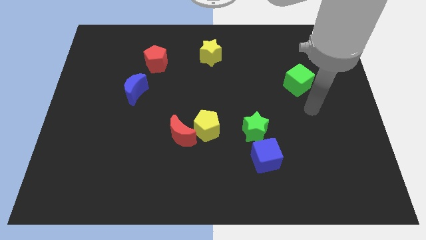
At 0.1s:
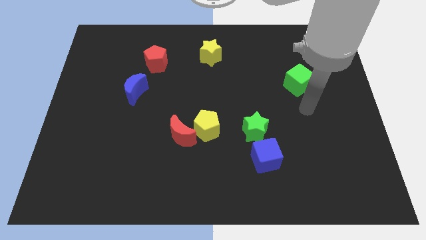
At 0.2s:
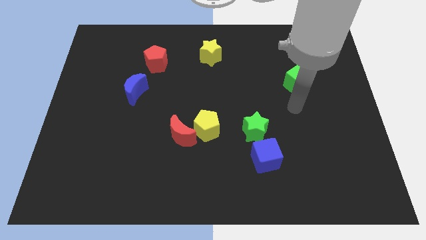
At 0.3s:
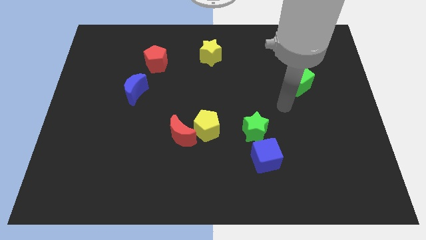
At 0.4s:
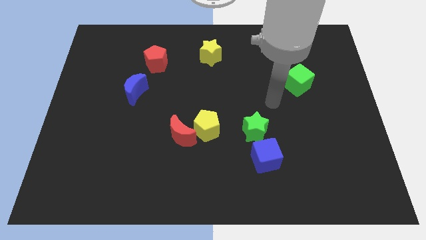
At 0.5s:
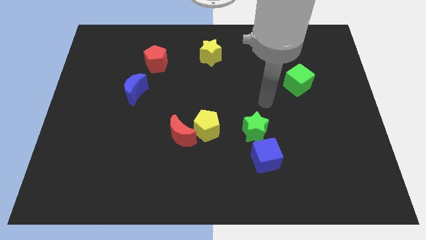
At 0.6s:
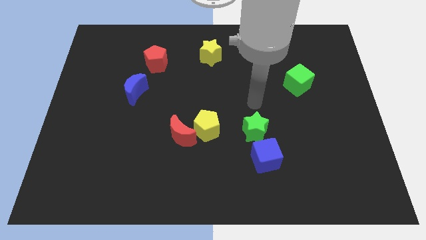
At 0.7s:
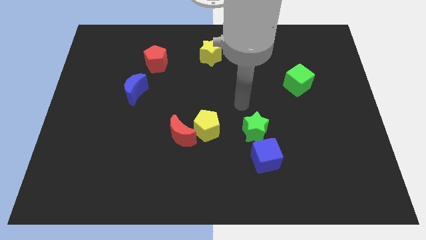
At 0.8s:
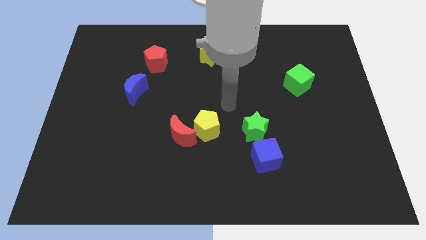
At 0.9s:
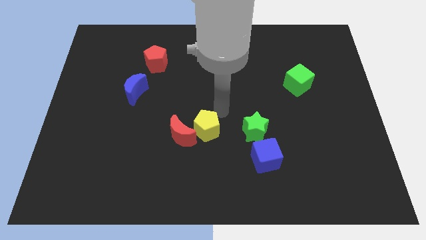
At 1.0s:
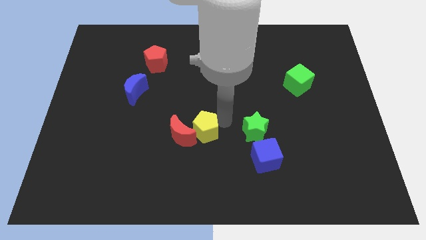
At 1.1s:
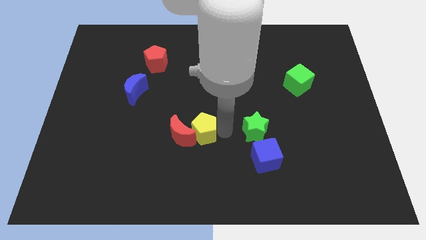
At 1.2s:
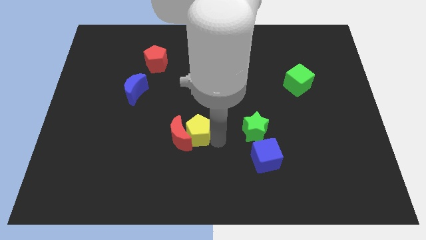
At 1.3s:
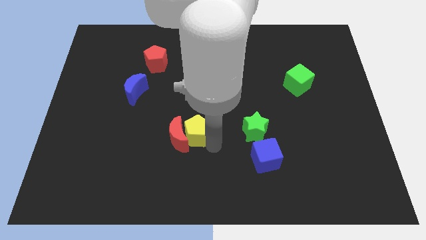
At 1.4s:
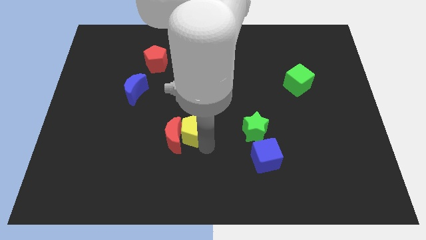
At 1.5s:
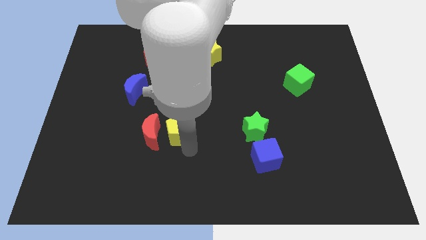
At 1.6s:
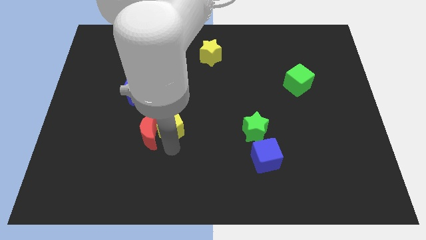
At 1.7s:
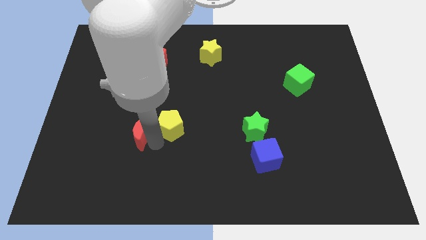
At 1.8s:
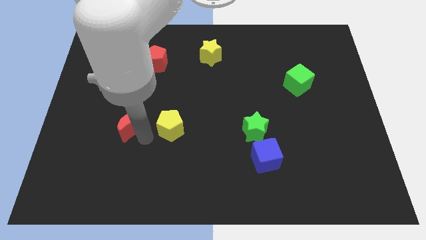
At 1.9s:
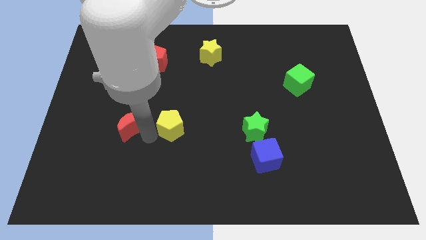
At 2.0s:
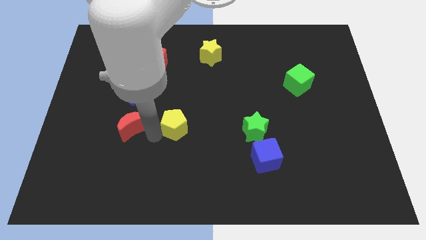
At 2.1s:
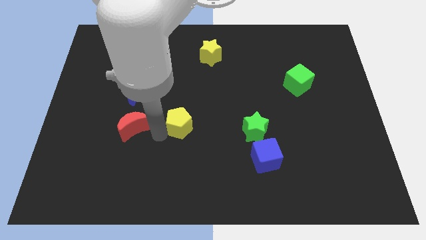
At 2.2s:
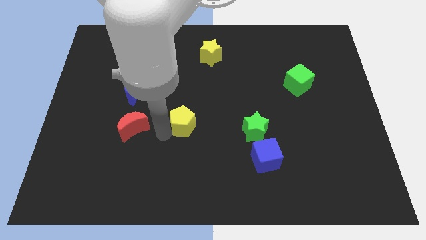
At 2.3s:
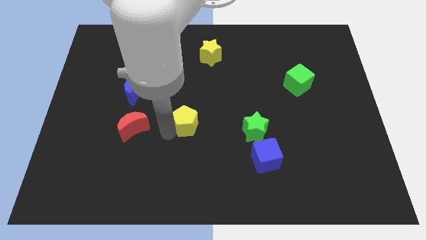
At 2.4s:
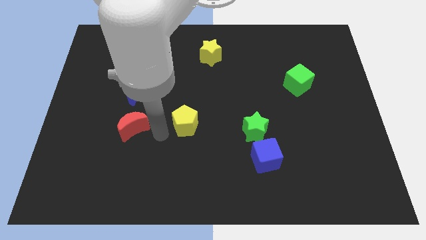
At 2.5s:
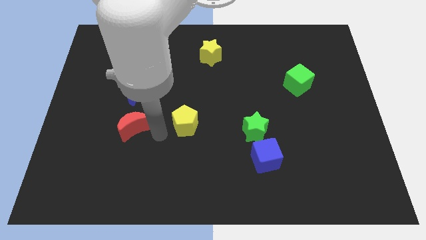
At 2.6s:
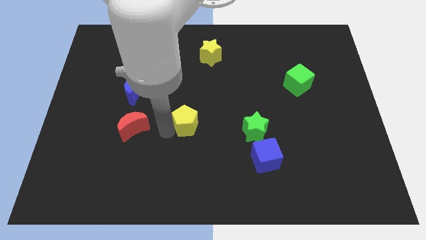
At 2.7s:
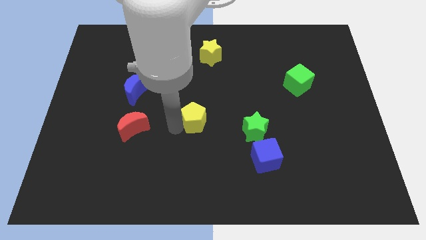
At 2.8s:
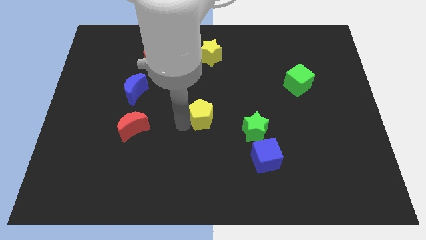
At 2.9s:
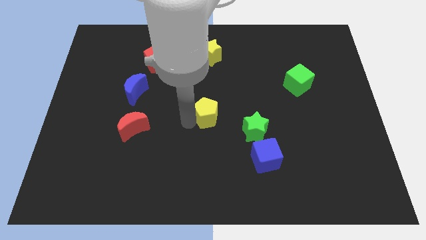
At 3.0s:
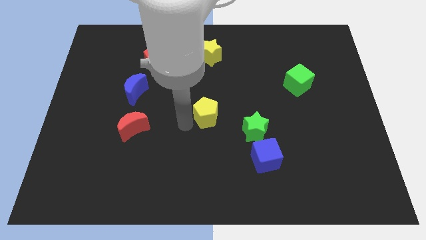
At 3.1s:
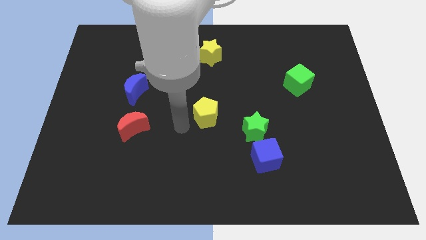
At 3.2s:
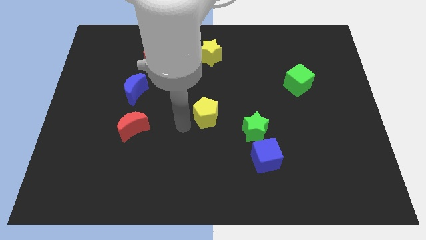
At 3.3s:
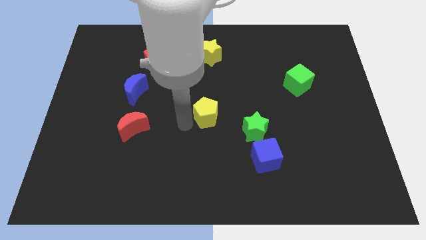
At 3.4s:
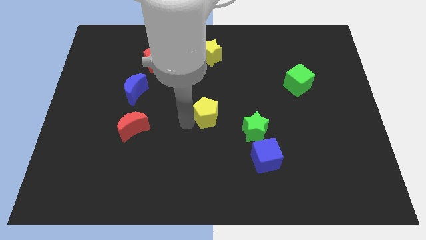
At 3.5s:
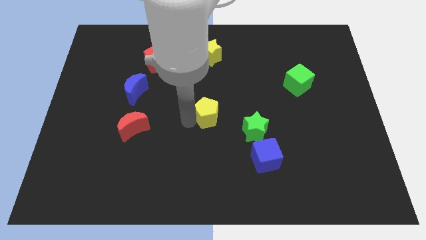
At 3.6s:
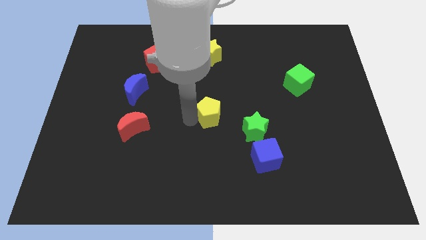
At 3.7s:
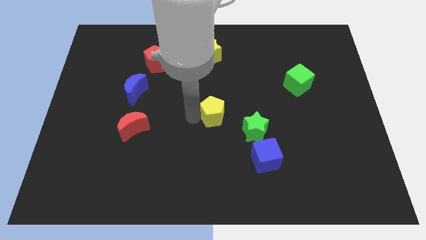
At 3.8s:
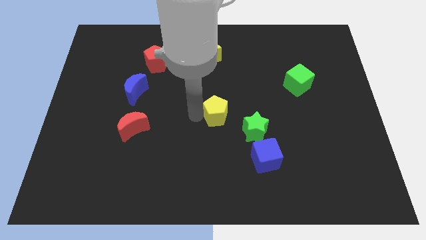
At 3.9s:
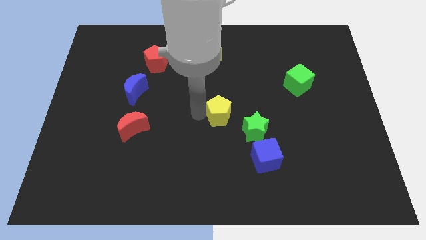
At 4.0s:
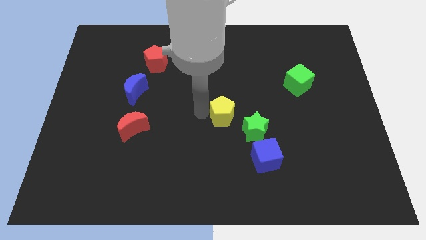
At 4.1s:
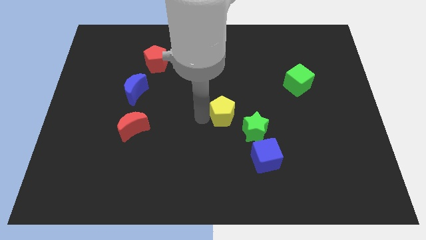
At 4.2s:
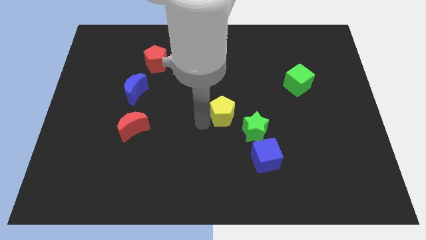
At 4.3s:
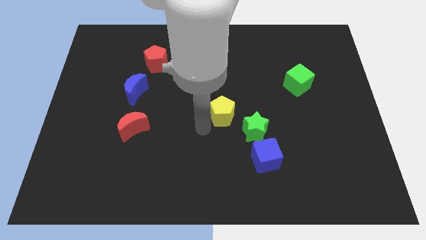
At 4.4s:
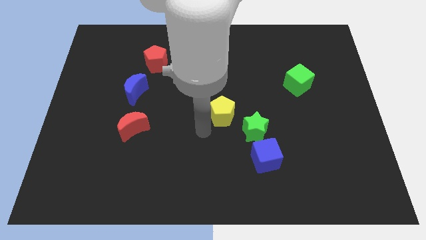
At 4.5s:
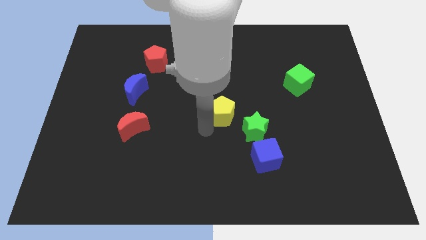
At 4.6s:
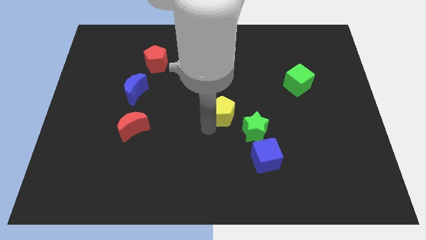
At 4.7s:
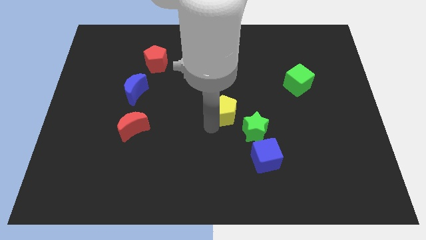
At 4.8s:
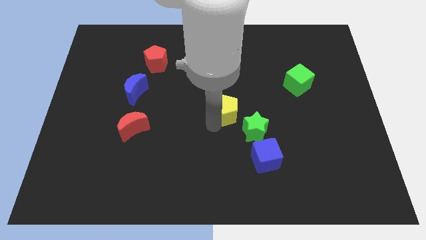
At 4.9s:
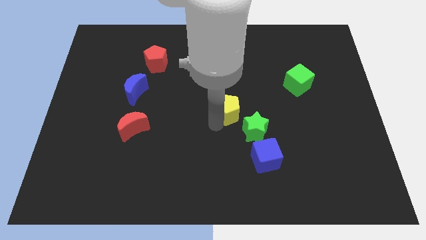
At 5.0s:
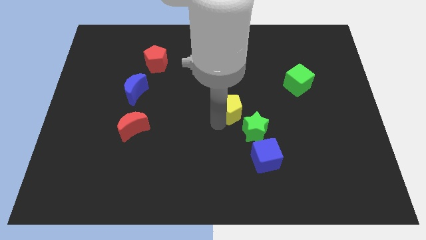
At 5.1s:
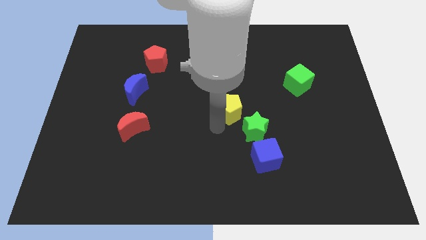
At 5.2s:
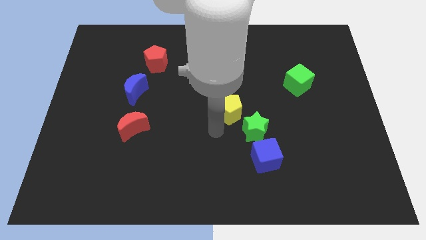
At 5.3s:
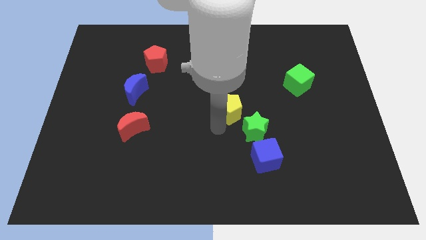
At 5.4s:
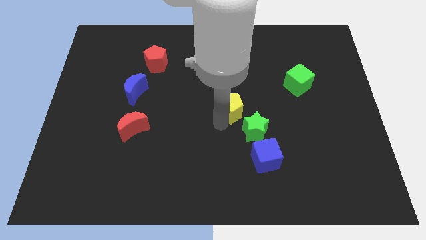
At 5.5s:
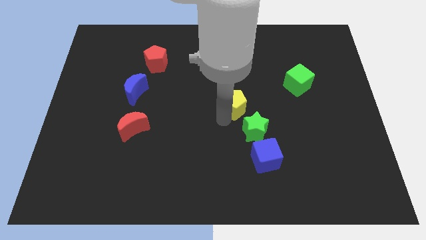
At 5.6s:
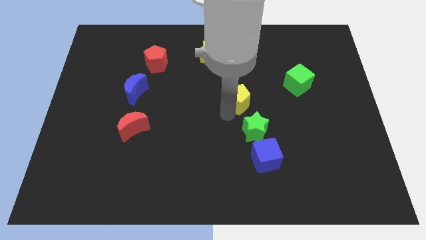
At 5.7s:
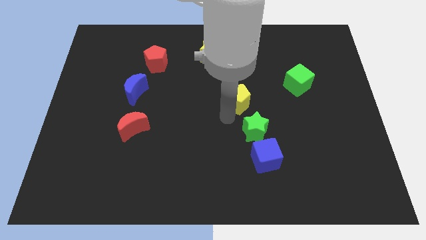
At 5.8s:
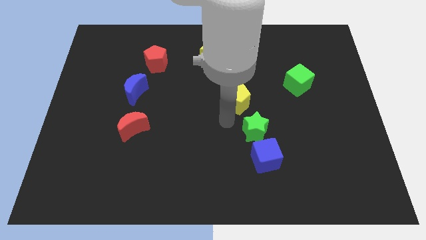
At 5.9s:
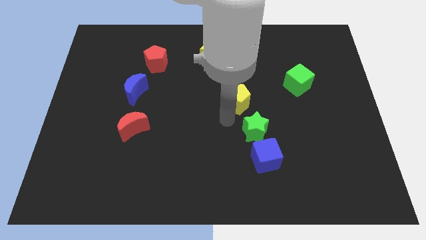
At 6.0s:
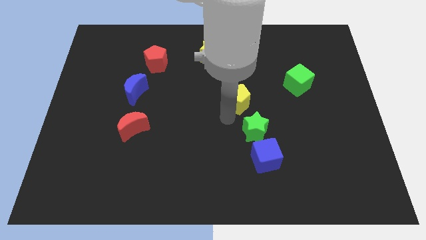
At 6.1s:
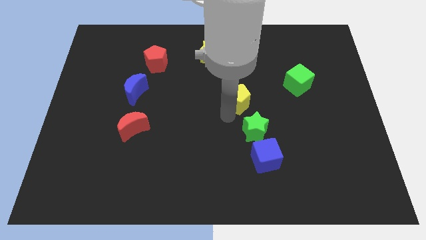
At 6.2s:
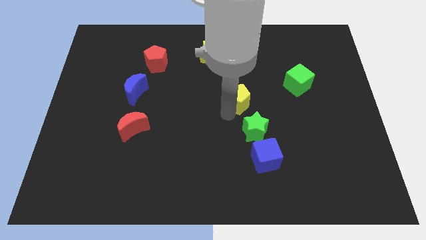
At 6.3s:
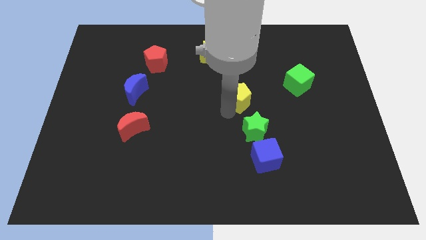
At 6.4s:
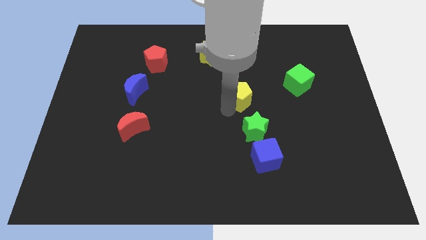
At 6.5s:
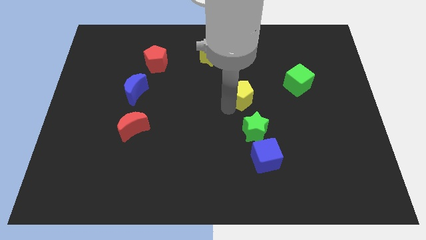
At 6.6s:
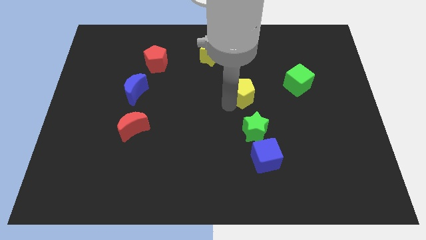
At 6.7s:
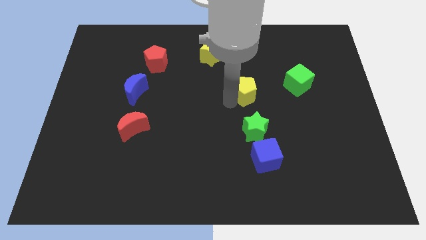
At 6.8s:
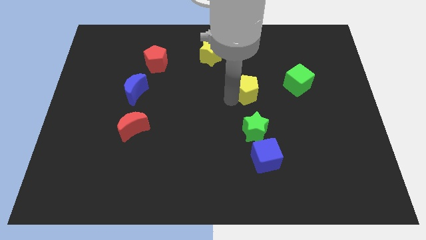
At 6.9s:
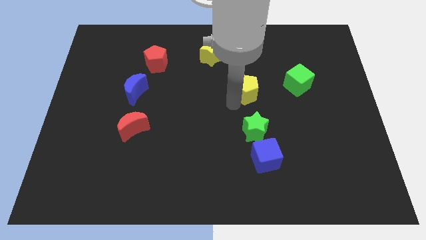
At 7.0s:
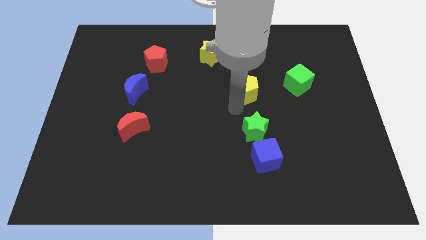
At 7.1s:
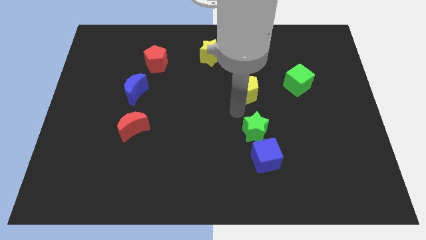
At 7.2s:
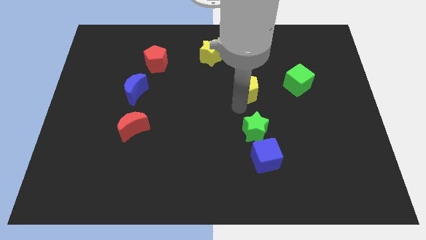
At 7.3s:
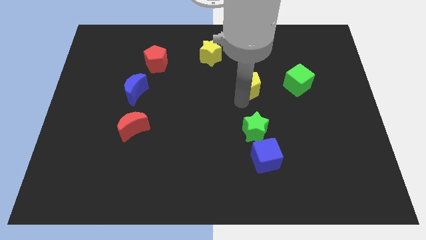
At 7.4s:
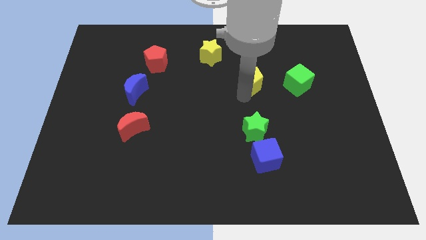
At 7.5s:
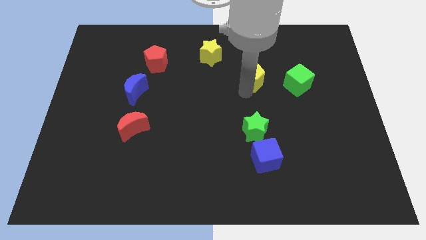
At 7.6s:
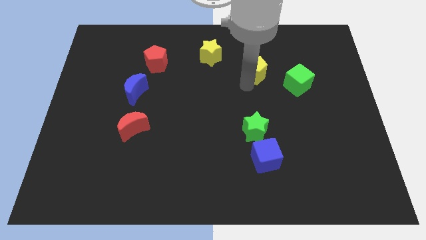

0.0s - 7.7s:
move the yellow pentagon up and to the right
